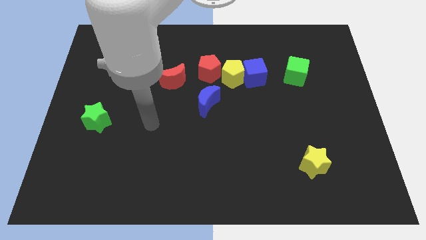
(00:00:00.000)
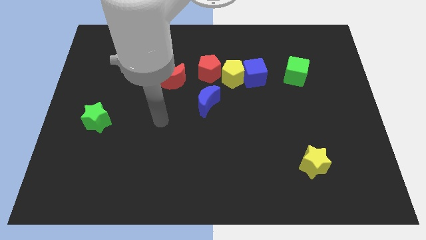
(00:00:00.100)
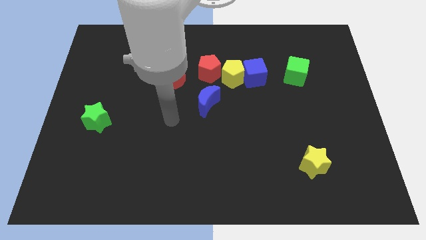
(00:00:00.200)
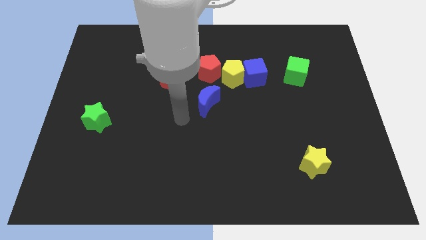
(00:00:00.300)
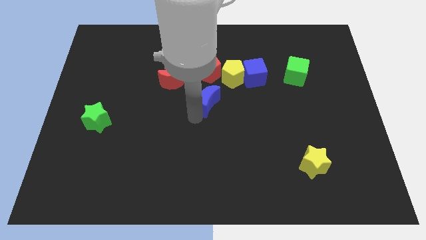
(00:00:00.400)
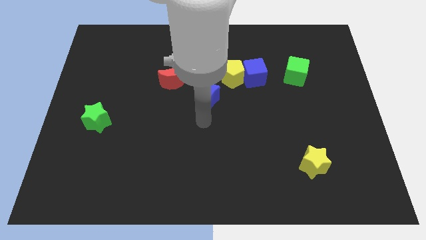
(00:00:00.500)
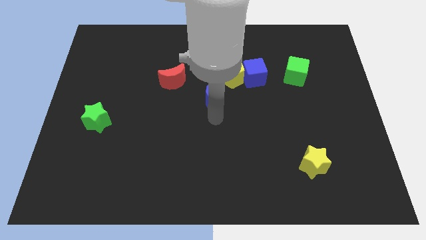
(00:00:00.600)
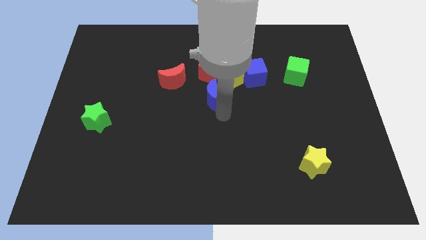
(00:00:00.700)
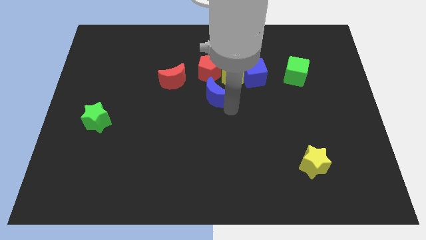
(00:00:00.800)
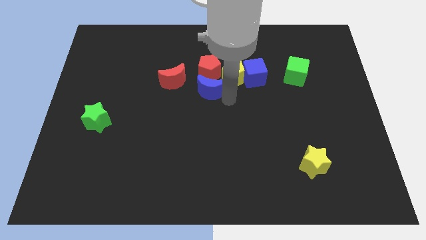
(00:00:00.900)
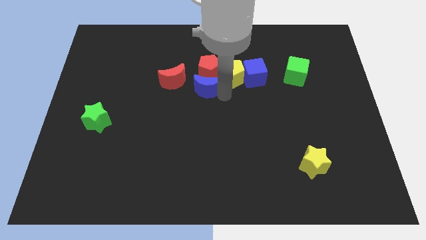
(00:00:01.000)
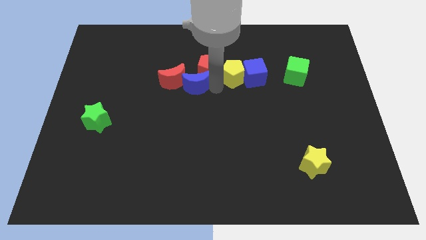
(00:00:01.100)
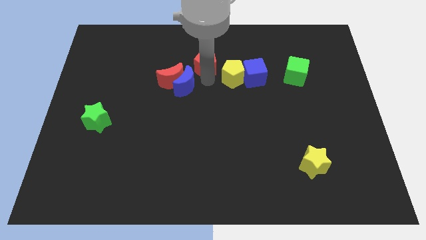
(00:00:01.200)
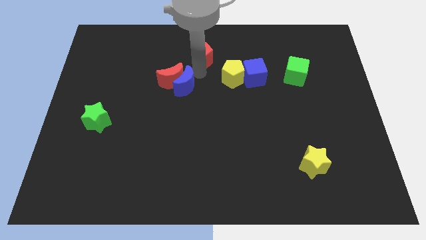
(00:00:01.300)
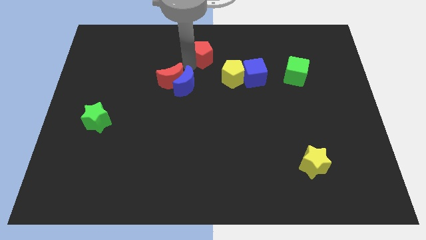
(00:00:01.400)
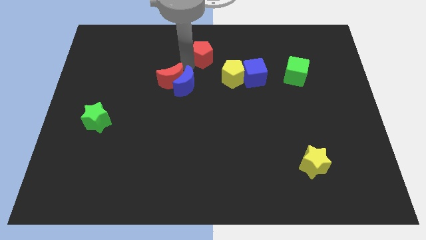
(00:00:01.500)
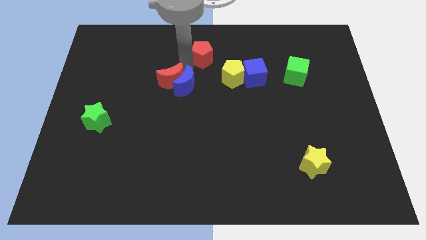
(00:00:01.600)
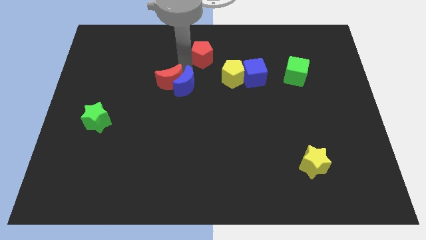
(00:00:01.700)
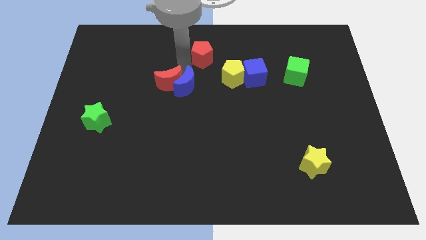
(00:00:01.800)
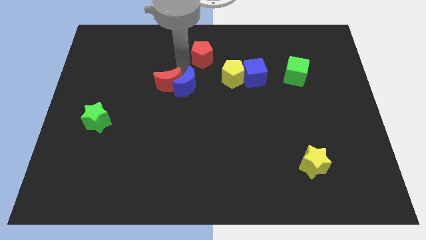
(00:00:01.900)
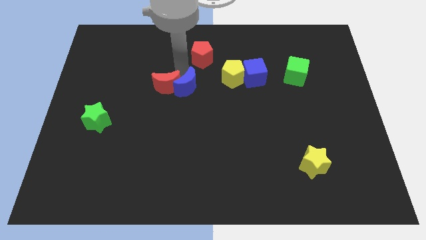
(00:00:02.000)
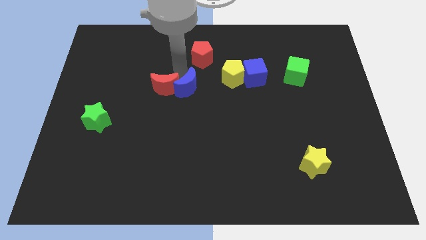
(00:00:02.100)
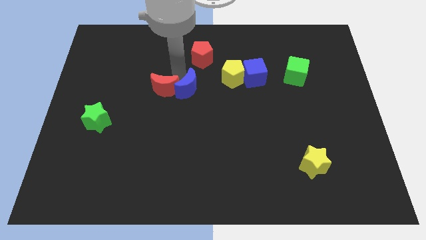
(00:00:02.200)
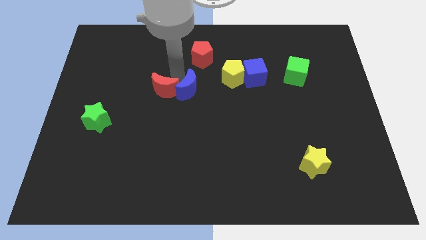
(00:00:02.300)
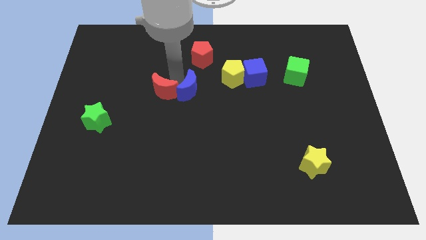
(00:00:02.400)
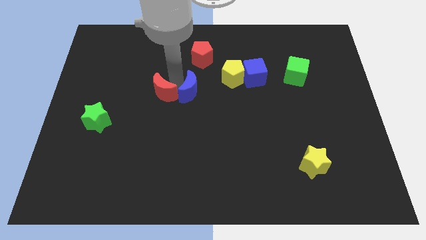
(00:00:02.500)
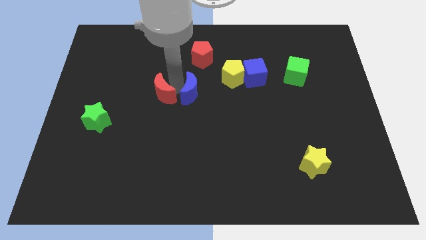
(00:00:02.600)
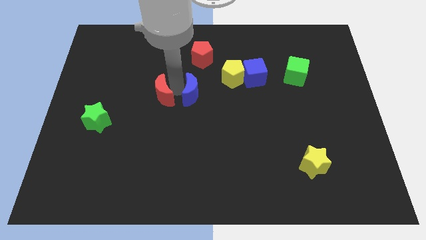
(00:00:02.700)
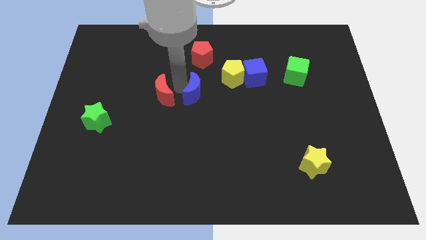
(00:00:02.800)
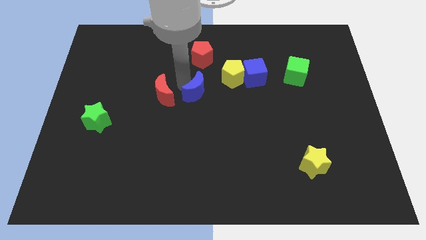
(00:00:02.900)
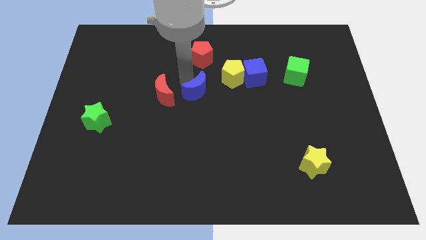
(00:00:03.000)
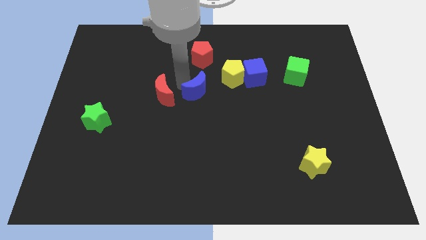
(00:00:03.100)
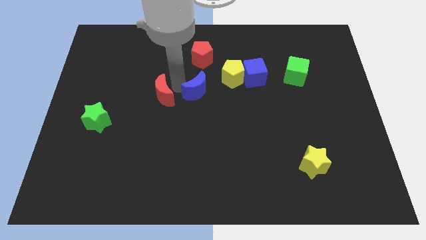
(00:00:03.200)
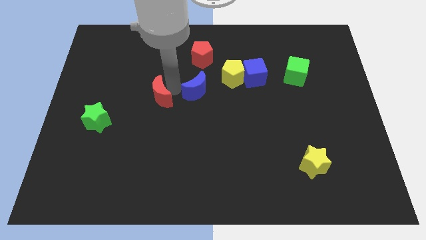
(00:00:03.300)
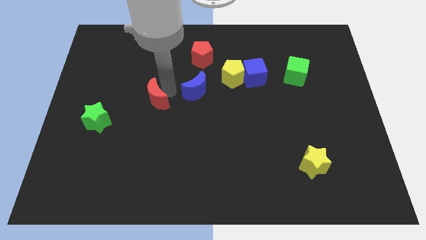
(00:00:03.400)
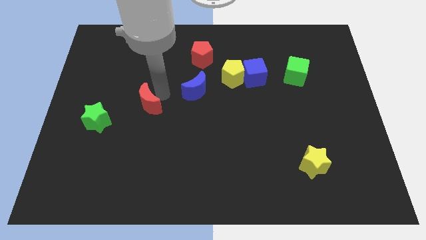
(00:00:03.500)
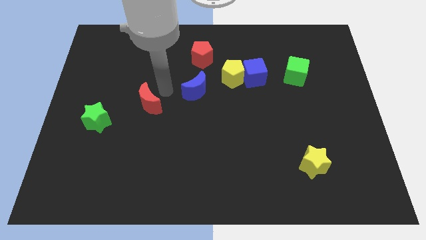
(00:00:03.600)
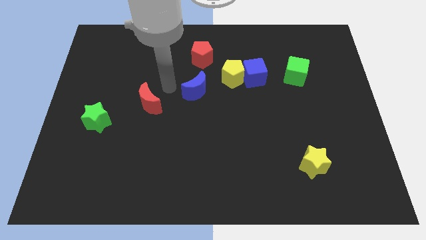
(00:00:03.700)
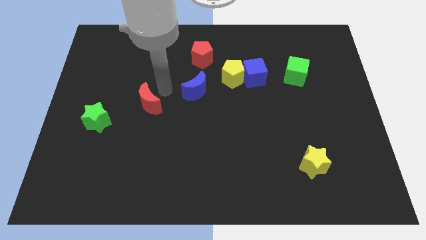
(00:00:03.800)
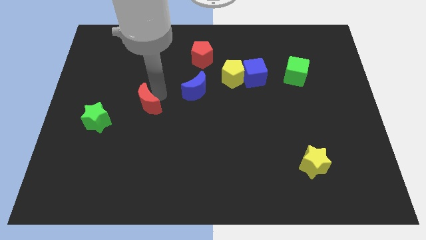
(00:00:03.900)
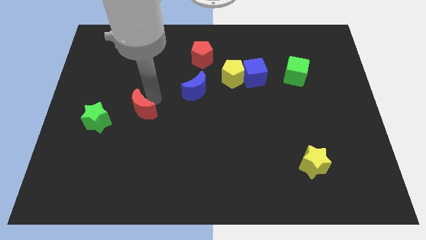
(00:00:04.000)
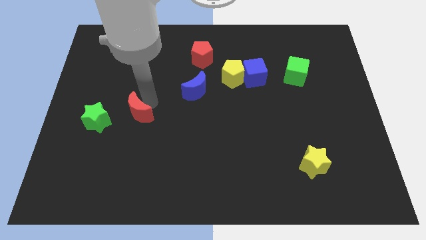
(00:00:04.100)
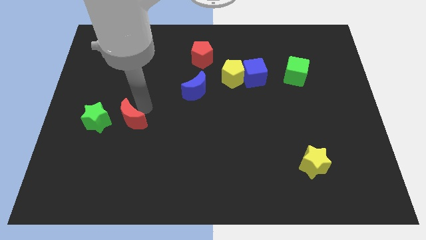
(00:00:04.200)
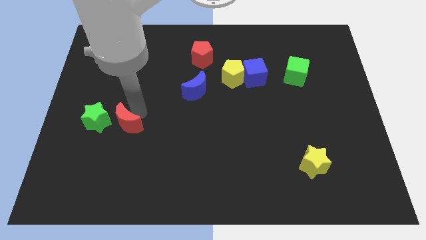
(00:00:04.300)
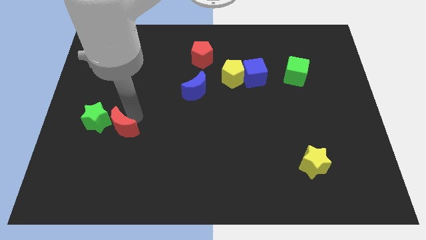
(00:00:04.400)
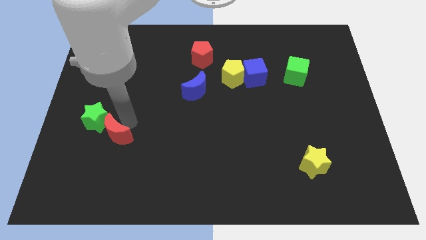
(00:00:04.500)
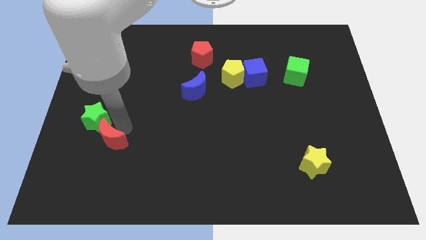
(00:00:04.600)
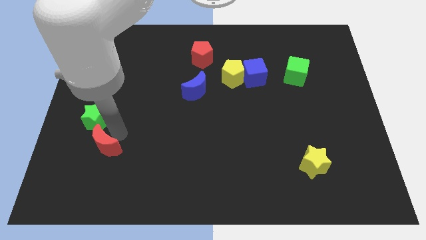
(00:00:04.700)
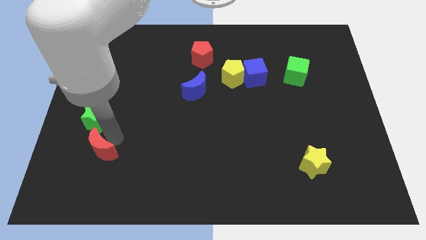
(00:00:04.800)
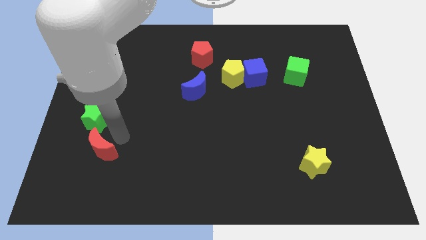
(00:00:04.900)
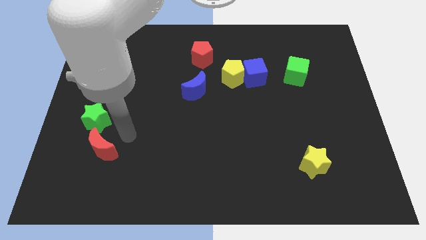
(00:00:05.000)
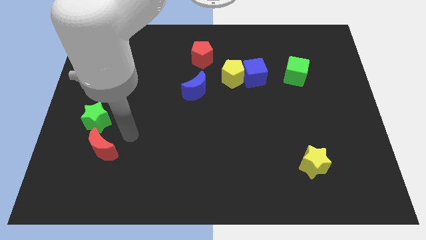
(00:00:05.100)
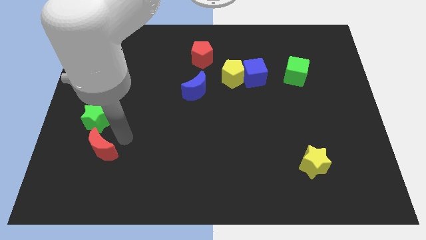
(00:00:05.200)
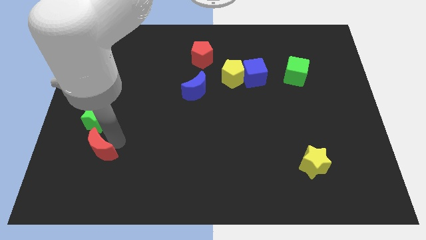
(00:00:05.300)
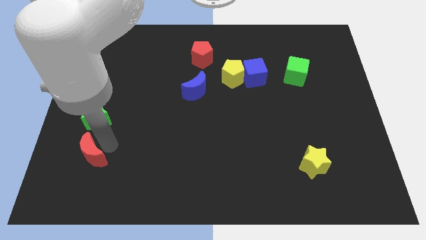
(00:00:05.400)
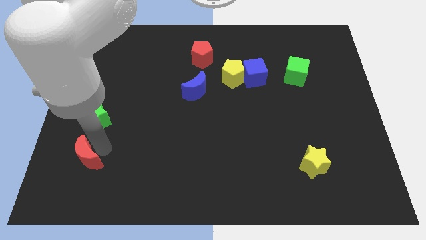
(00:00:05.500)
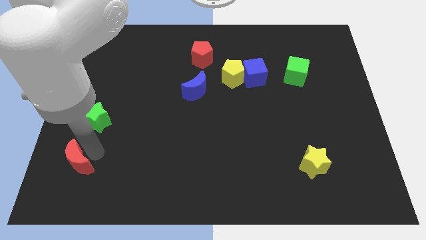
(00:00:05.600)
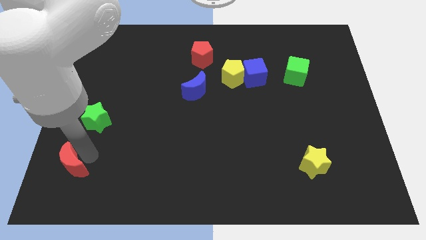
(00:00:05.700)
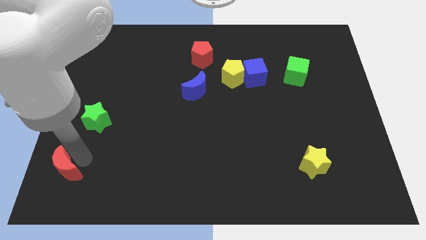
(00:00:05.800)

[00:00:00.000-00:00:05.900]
push the red moon to the bottom left of the board
